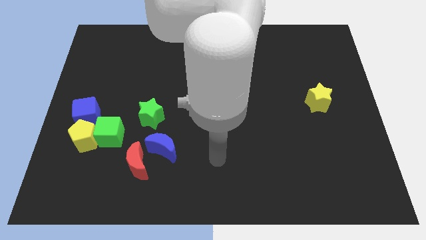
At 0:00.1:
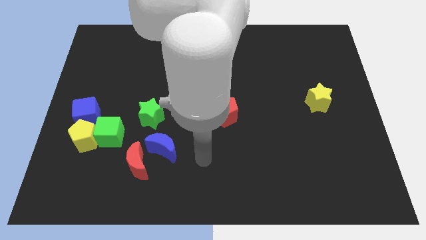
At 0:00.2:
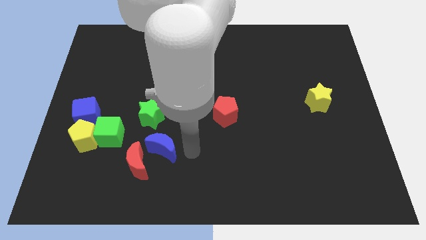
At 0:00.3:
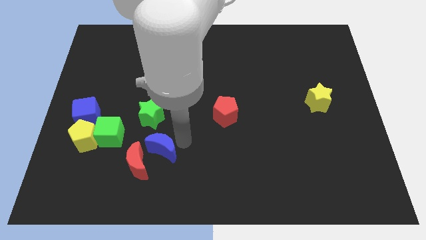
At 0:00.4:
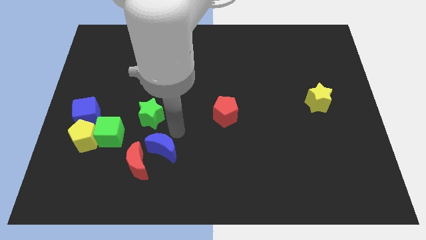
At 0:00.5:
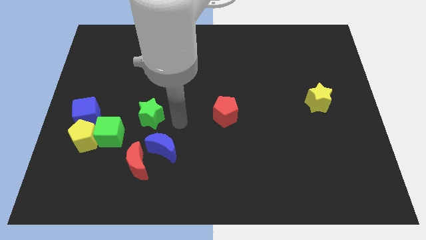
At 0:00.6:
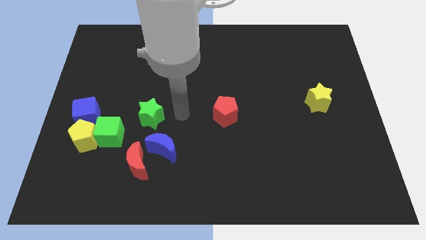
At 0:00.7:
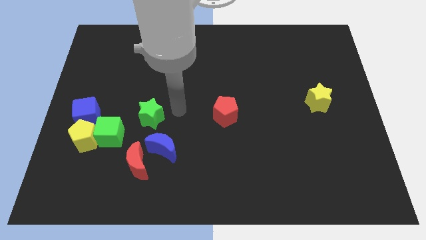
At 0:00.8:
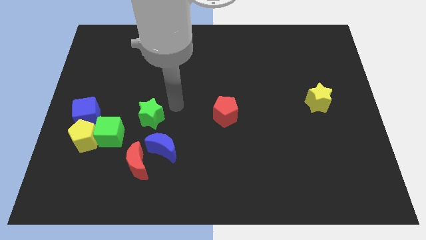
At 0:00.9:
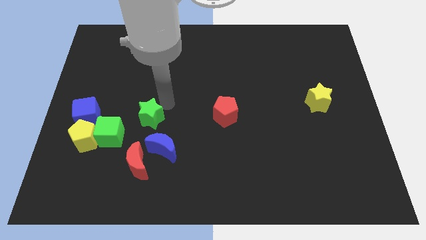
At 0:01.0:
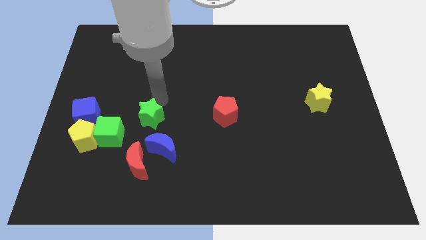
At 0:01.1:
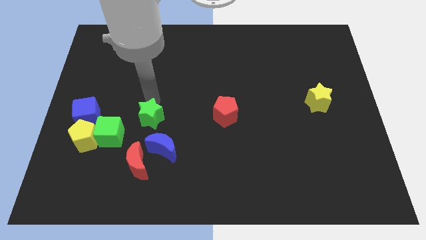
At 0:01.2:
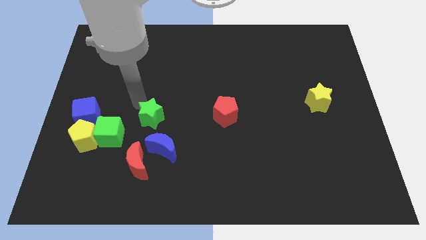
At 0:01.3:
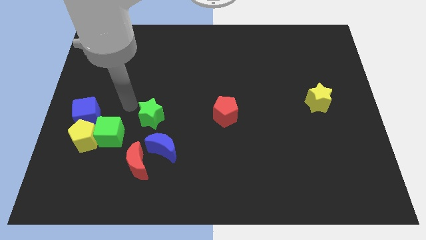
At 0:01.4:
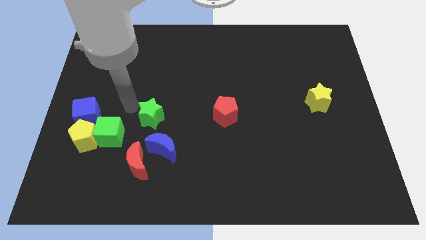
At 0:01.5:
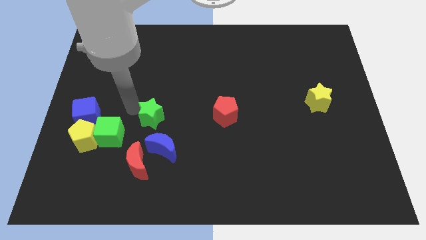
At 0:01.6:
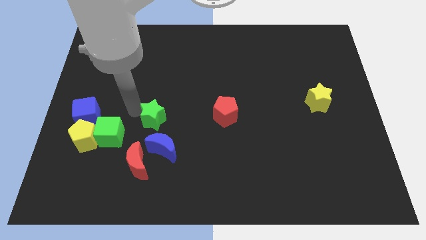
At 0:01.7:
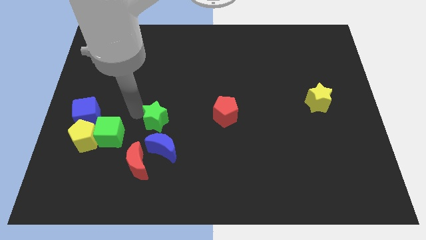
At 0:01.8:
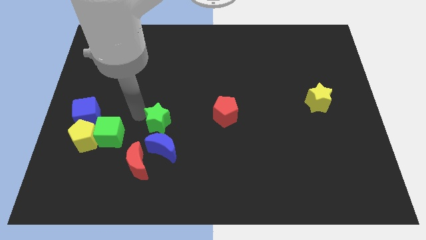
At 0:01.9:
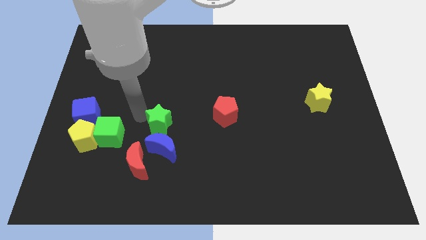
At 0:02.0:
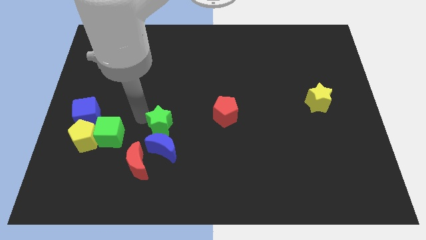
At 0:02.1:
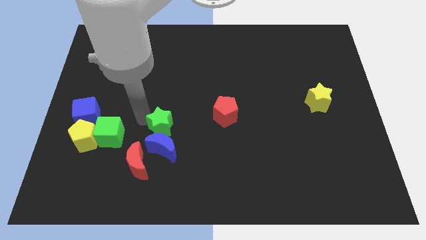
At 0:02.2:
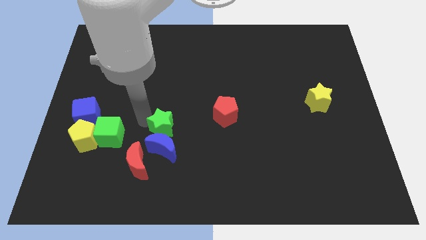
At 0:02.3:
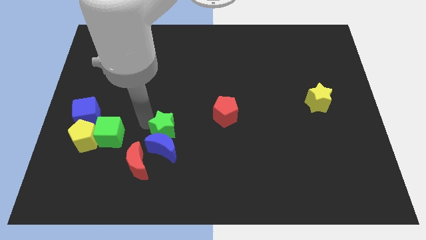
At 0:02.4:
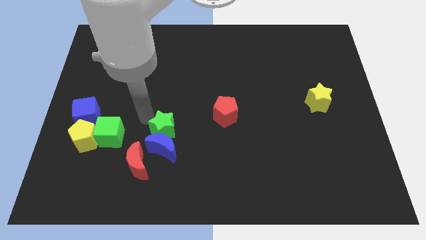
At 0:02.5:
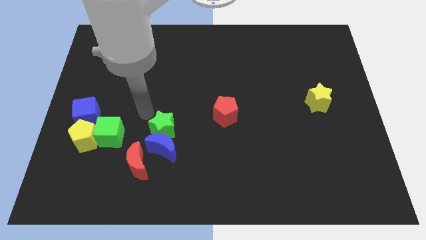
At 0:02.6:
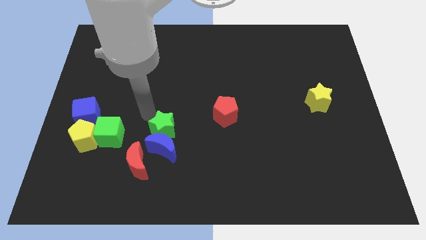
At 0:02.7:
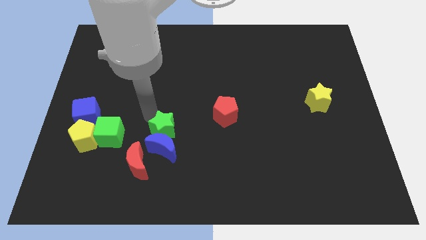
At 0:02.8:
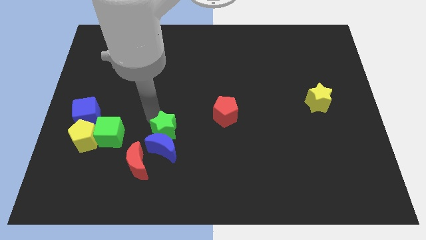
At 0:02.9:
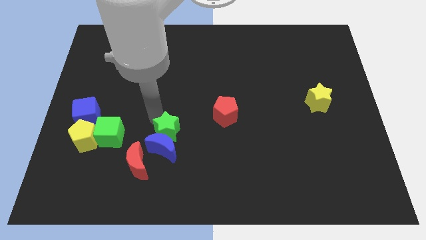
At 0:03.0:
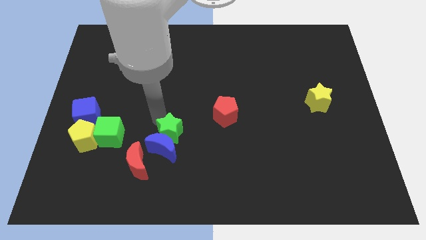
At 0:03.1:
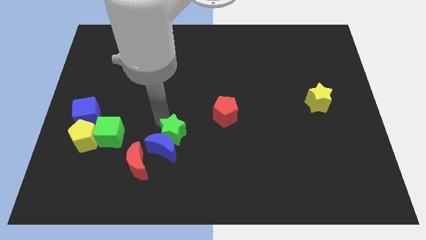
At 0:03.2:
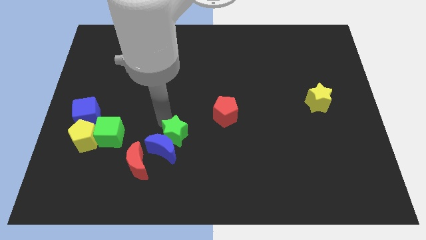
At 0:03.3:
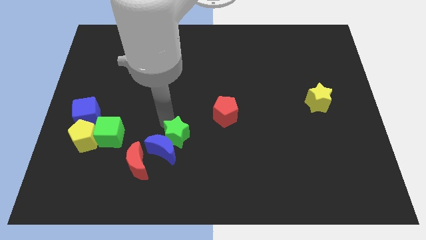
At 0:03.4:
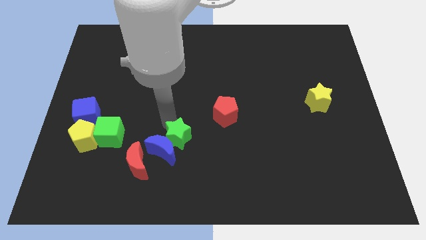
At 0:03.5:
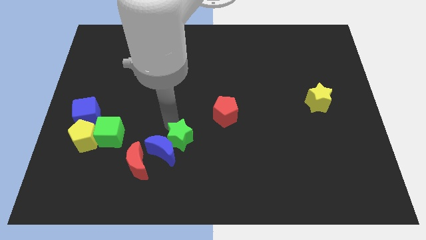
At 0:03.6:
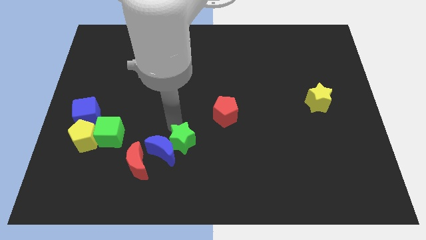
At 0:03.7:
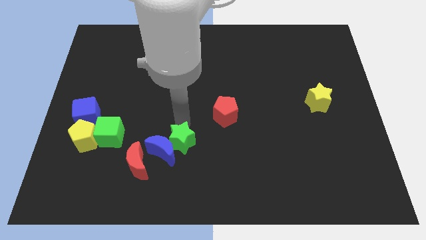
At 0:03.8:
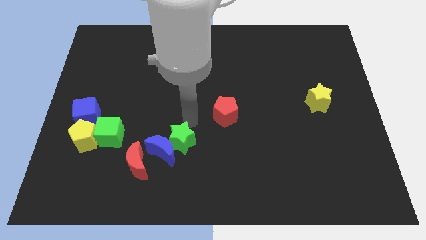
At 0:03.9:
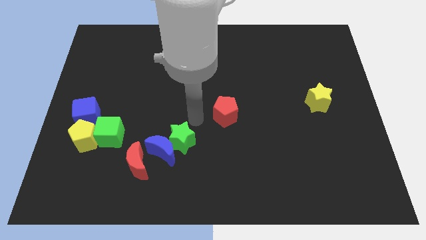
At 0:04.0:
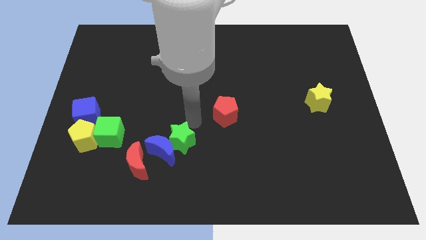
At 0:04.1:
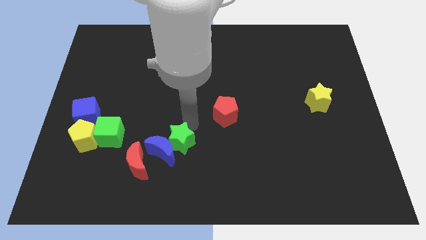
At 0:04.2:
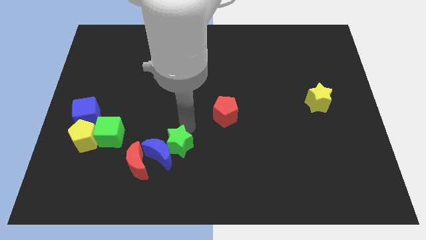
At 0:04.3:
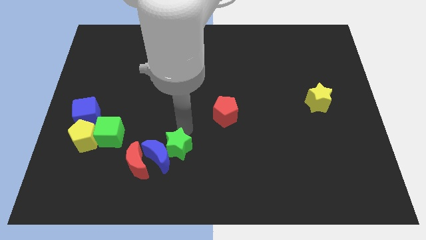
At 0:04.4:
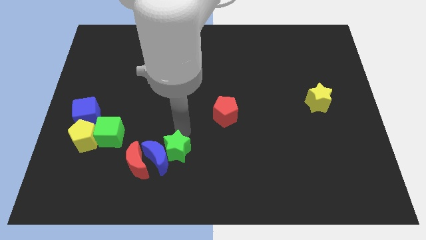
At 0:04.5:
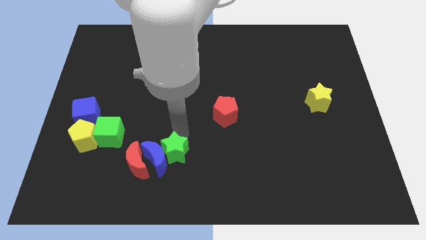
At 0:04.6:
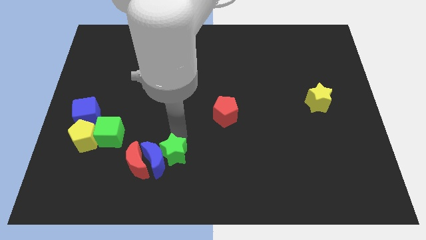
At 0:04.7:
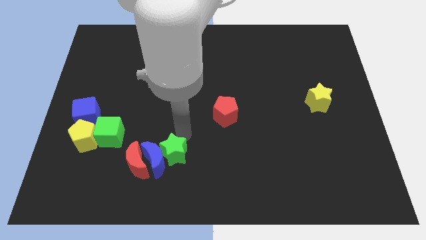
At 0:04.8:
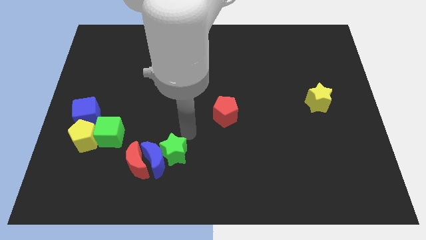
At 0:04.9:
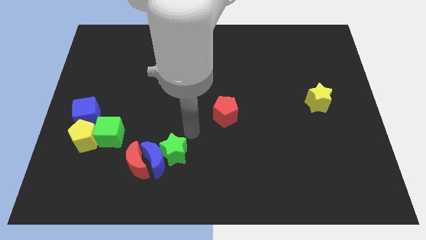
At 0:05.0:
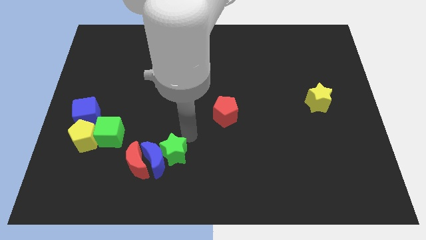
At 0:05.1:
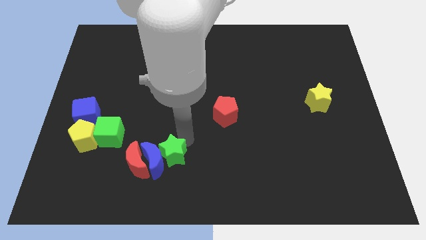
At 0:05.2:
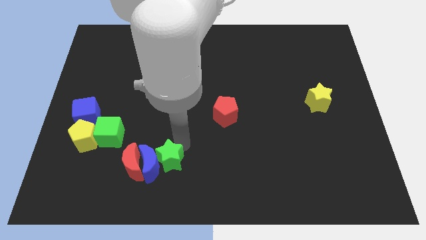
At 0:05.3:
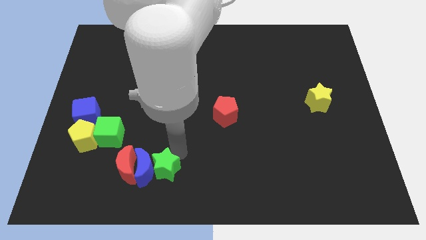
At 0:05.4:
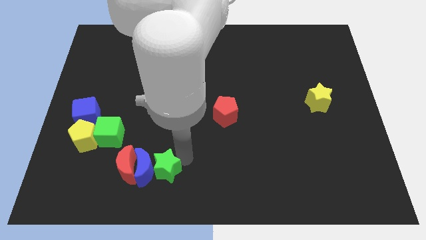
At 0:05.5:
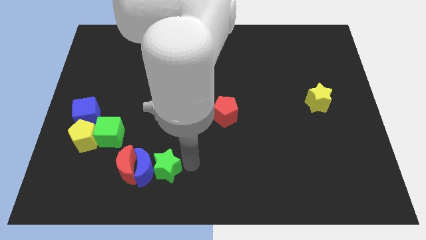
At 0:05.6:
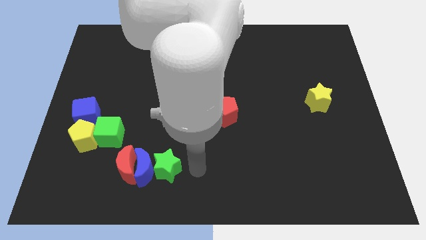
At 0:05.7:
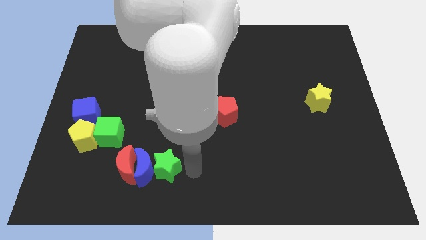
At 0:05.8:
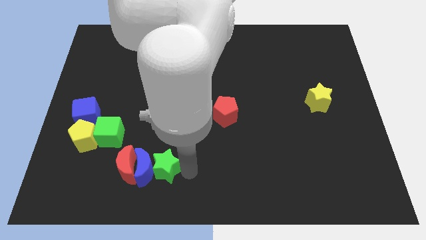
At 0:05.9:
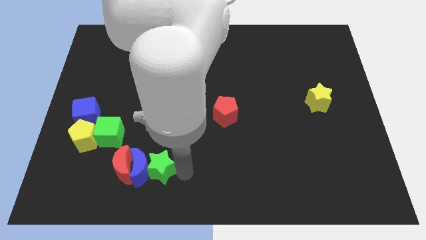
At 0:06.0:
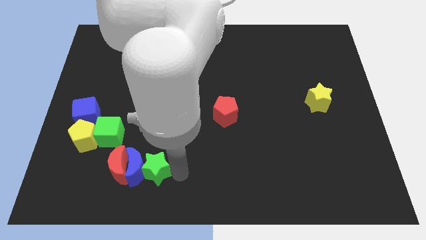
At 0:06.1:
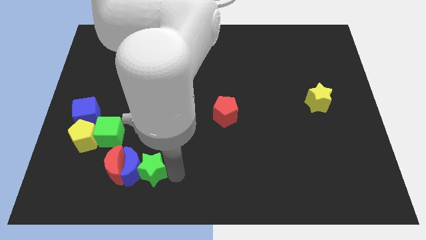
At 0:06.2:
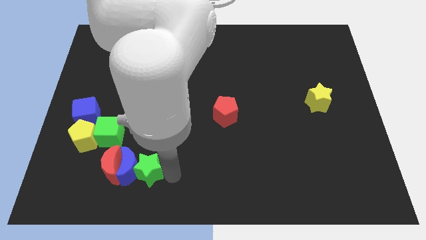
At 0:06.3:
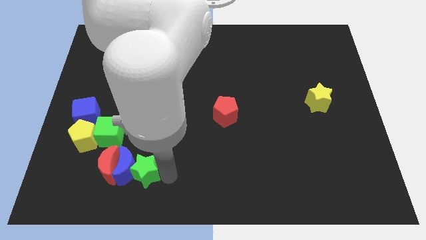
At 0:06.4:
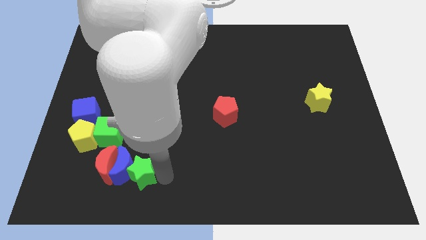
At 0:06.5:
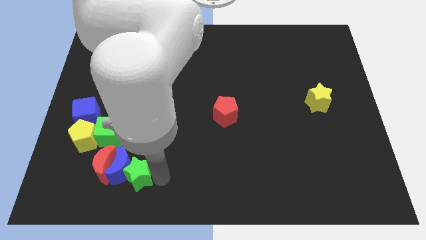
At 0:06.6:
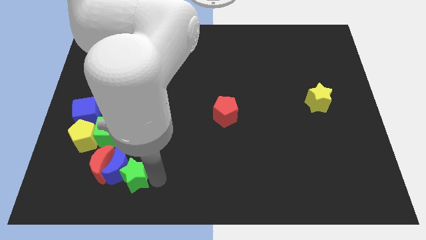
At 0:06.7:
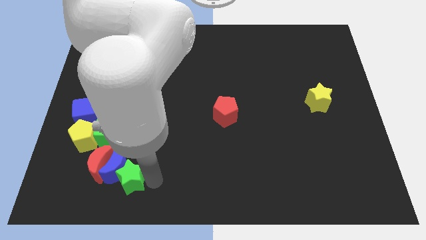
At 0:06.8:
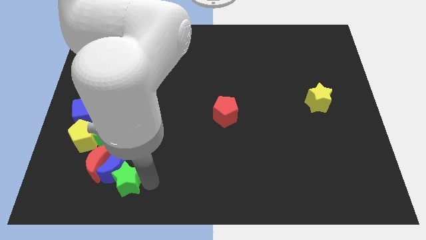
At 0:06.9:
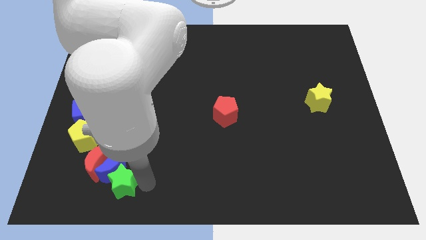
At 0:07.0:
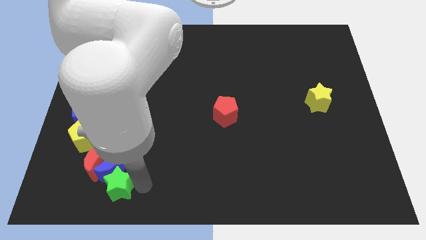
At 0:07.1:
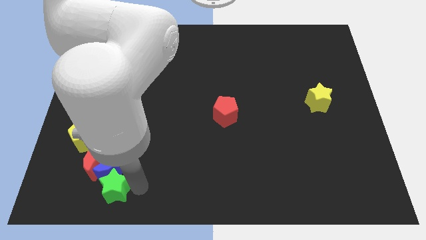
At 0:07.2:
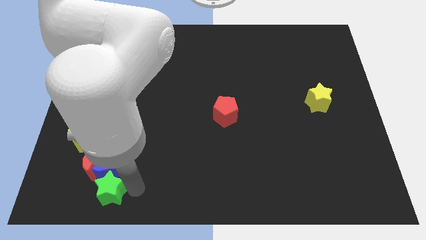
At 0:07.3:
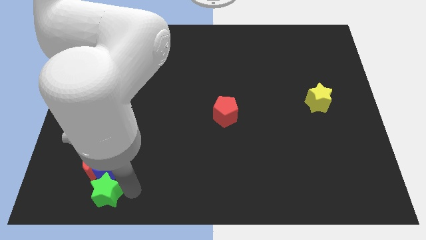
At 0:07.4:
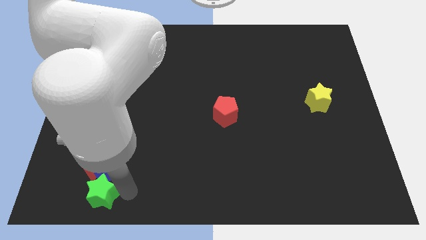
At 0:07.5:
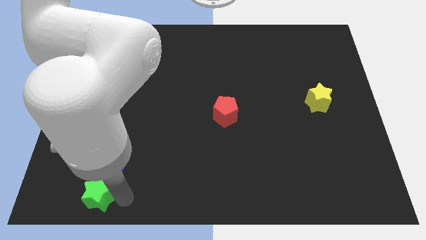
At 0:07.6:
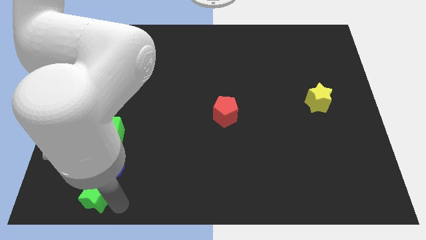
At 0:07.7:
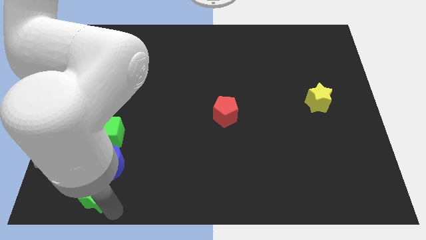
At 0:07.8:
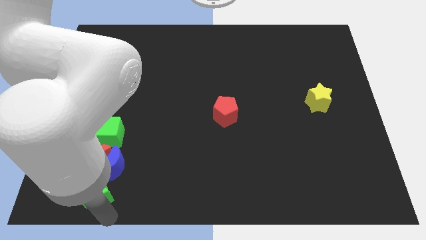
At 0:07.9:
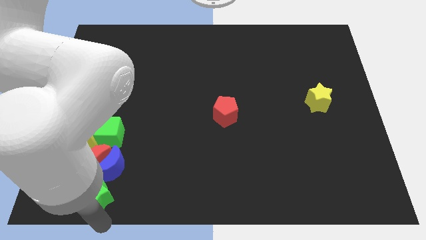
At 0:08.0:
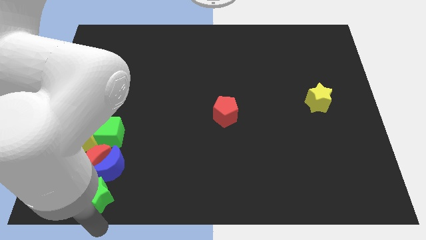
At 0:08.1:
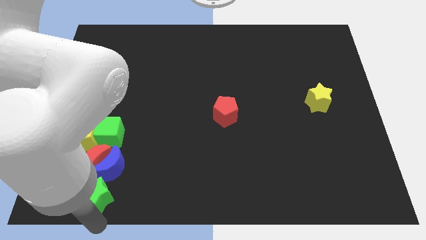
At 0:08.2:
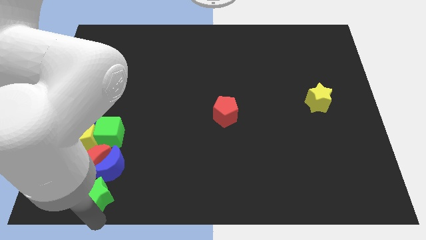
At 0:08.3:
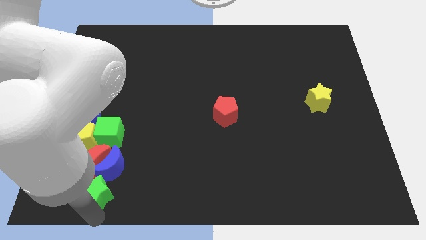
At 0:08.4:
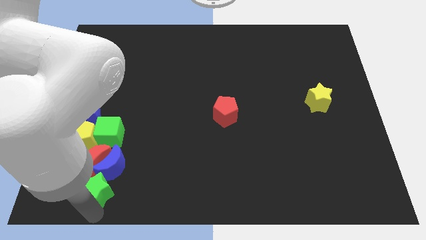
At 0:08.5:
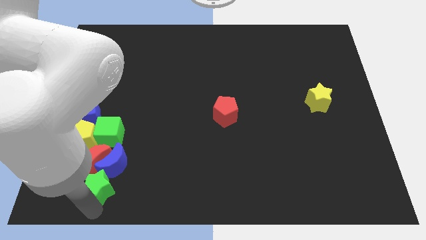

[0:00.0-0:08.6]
put the green star next to the red moon
